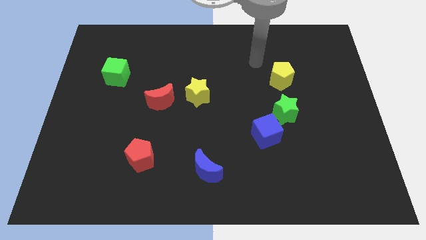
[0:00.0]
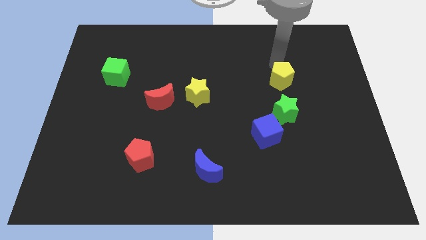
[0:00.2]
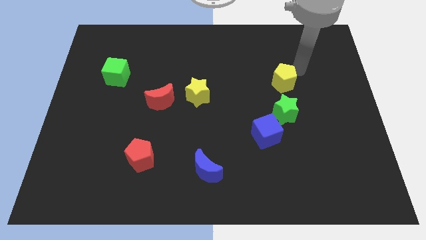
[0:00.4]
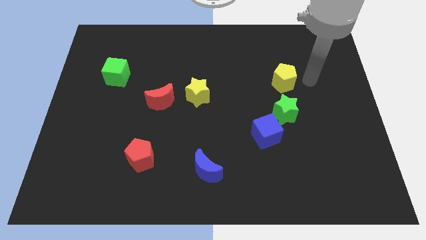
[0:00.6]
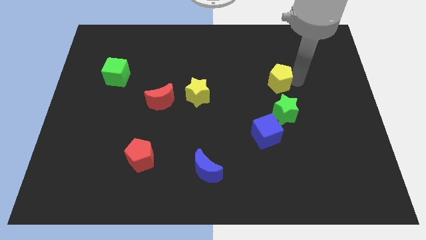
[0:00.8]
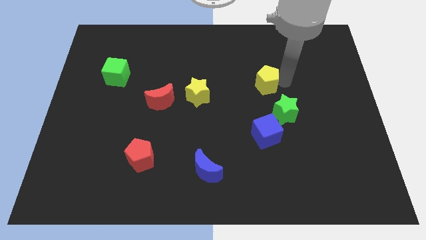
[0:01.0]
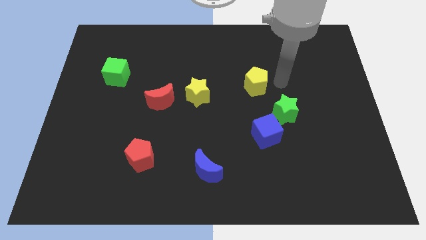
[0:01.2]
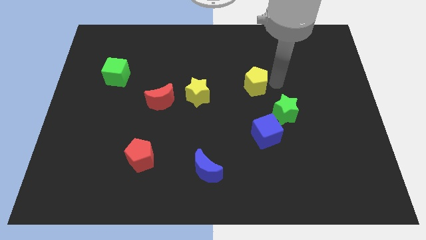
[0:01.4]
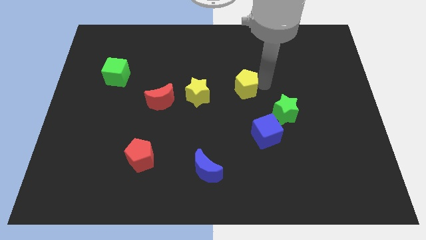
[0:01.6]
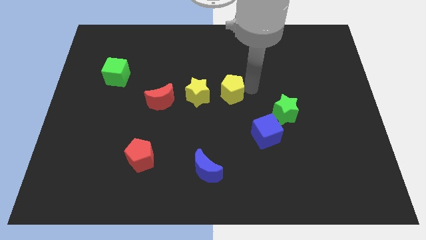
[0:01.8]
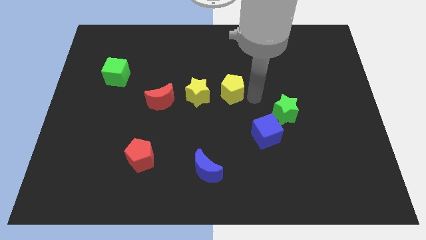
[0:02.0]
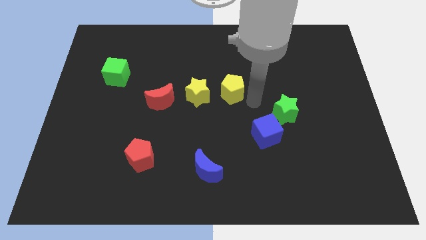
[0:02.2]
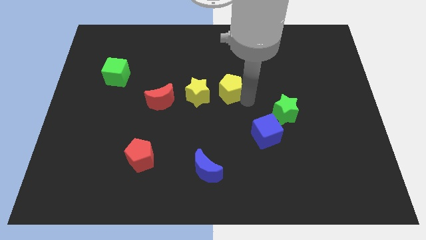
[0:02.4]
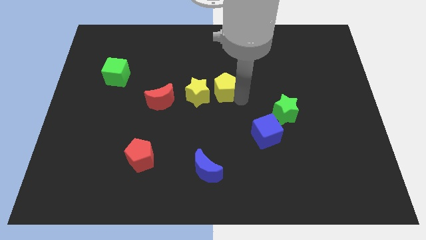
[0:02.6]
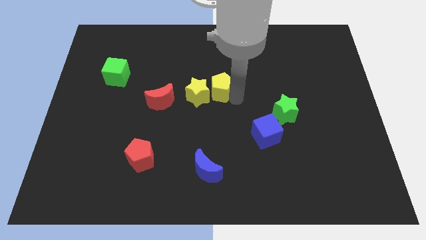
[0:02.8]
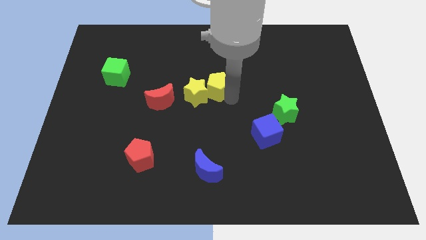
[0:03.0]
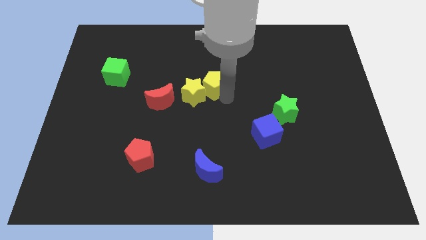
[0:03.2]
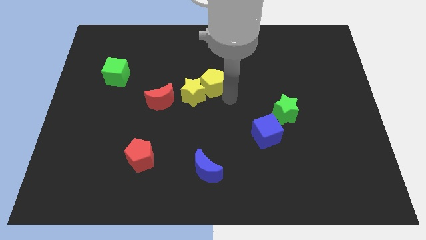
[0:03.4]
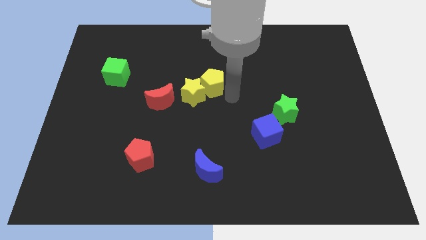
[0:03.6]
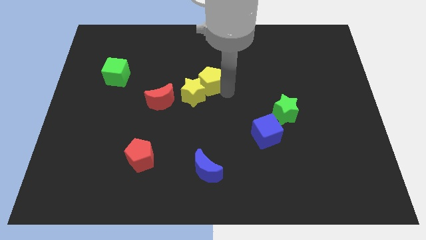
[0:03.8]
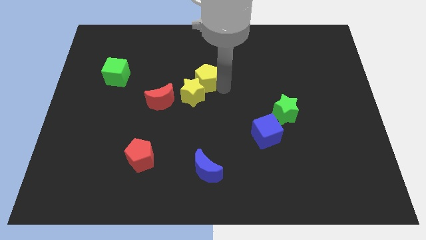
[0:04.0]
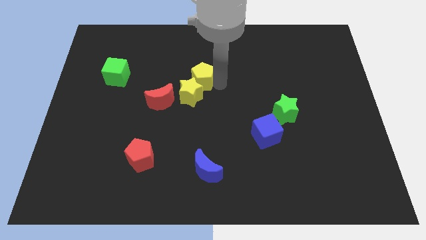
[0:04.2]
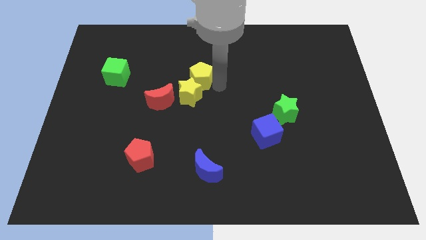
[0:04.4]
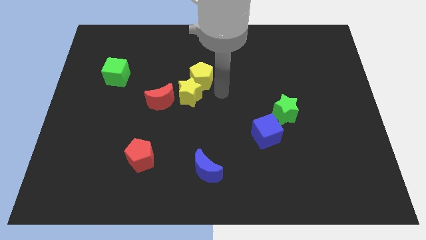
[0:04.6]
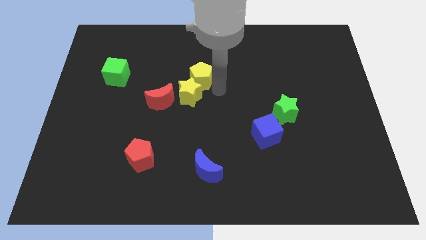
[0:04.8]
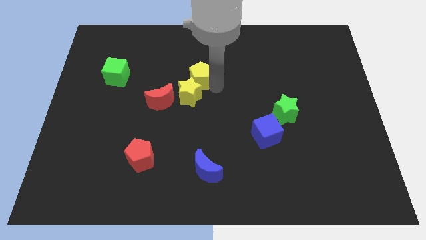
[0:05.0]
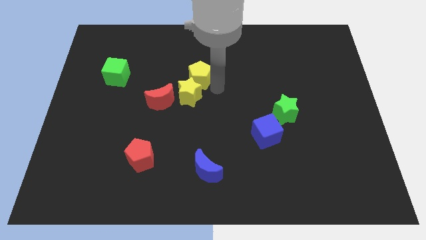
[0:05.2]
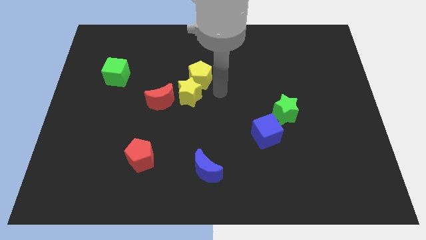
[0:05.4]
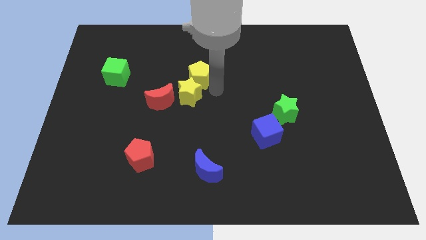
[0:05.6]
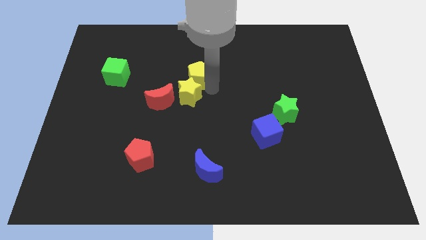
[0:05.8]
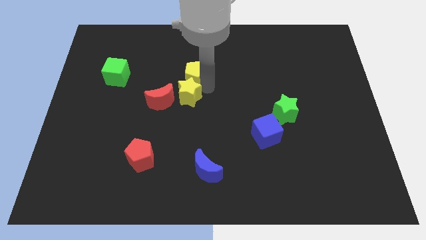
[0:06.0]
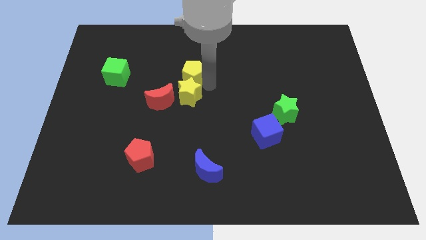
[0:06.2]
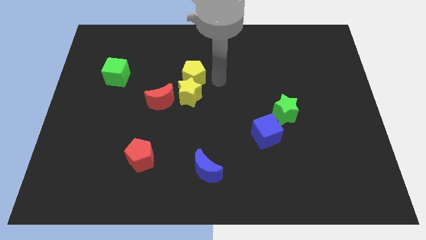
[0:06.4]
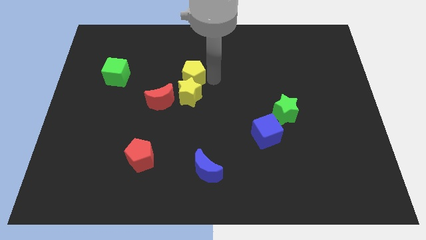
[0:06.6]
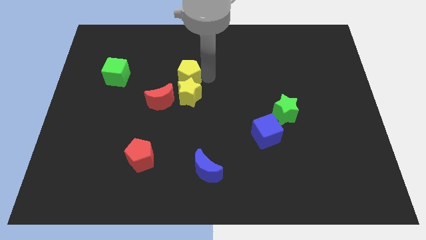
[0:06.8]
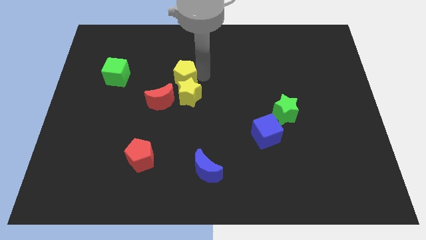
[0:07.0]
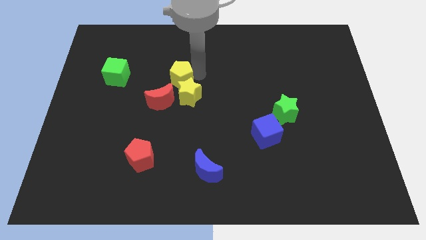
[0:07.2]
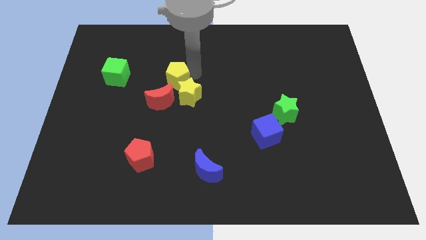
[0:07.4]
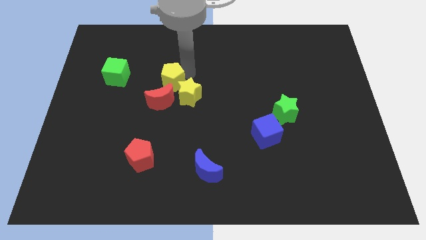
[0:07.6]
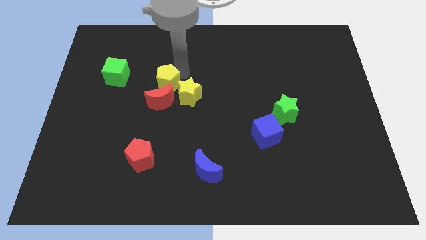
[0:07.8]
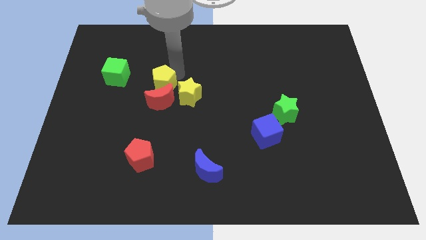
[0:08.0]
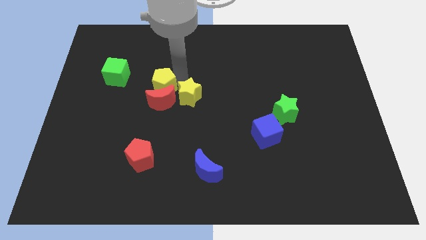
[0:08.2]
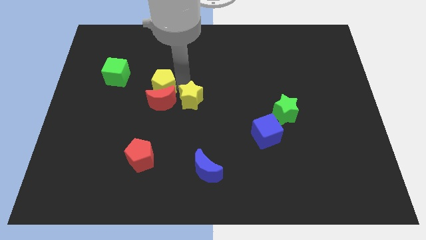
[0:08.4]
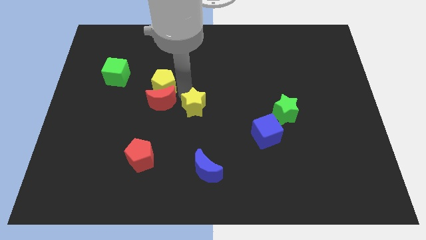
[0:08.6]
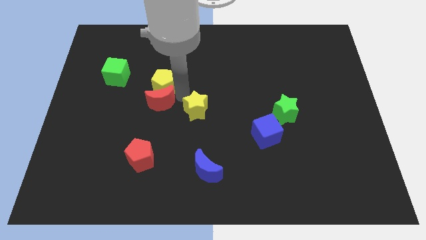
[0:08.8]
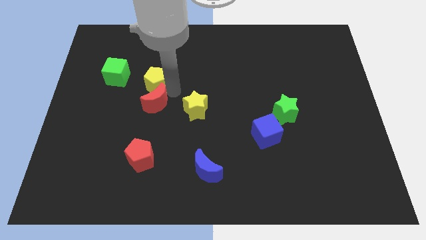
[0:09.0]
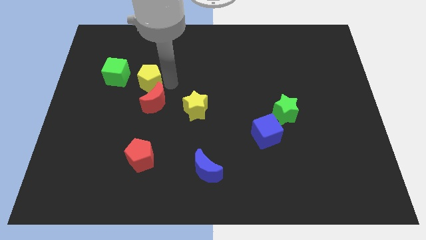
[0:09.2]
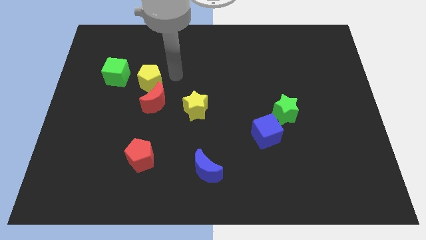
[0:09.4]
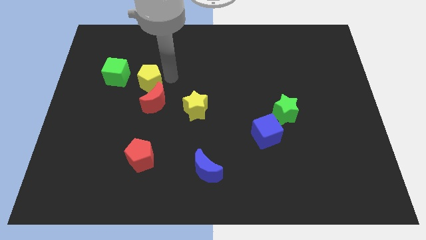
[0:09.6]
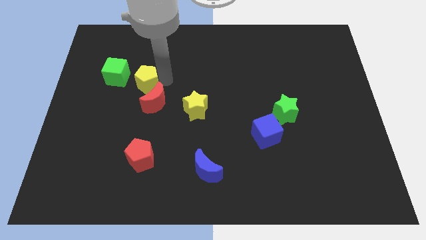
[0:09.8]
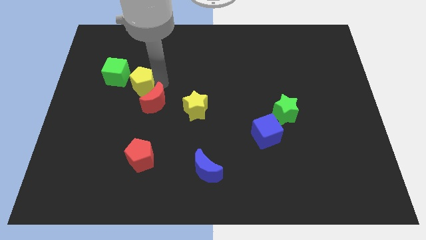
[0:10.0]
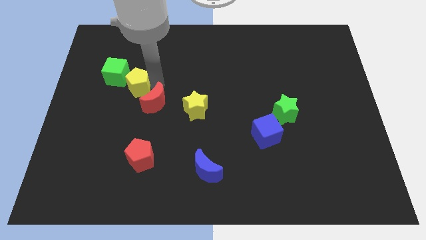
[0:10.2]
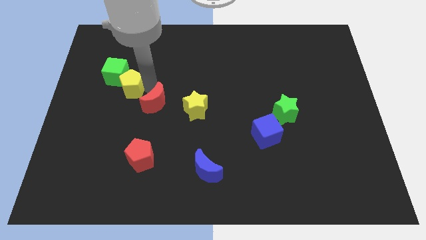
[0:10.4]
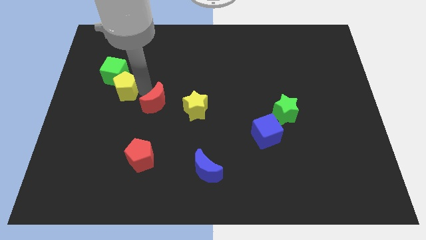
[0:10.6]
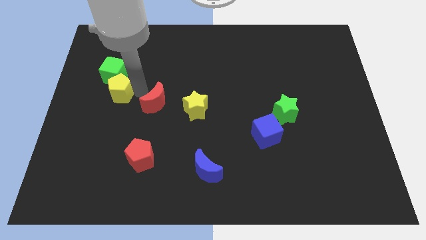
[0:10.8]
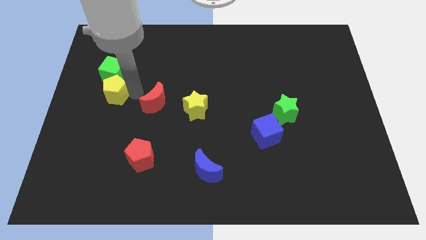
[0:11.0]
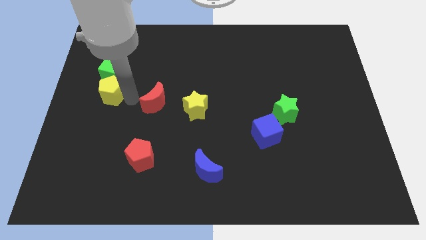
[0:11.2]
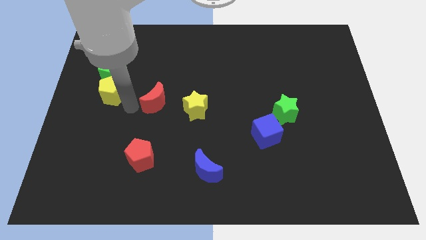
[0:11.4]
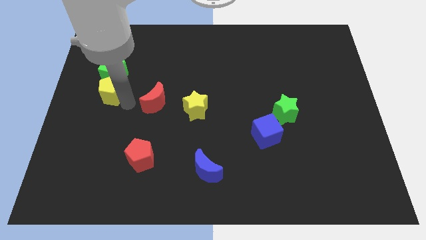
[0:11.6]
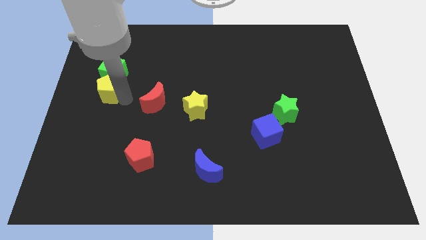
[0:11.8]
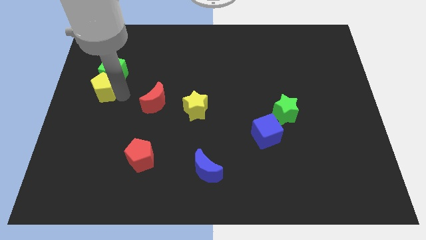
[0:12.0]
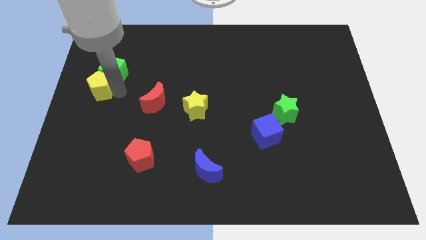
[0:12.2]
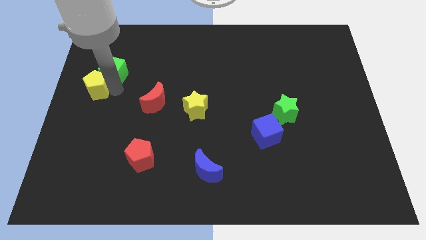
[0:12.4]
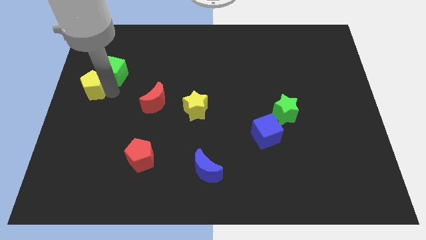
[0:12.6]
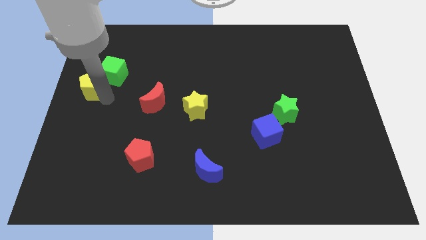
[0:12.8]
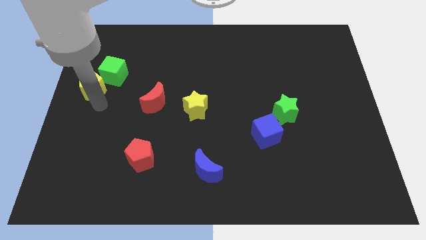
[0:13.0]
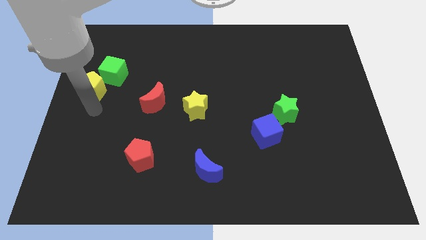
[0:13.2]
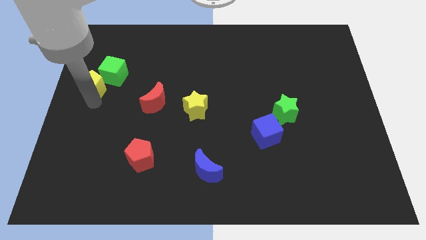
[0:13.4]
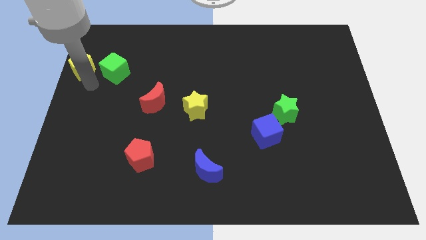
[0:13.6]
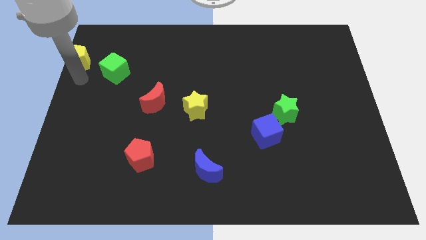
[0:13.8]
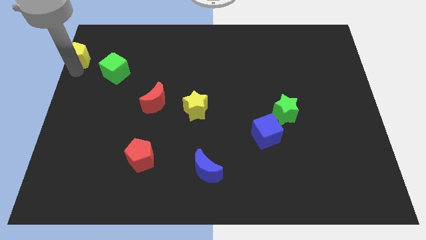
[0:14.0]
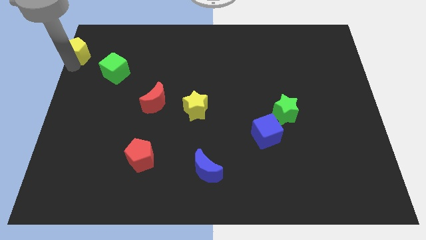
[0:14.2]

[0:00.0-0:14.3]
put the yellow pentagon to the top left corner
